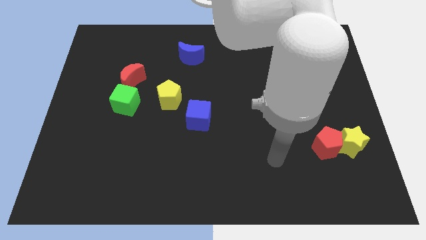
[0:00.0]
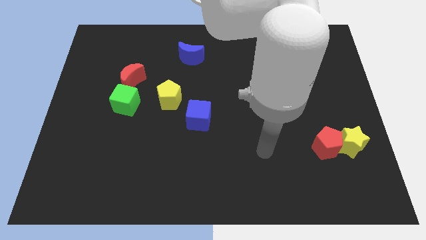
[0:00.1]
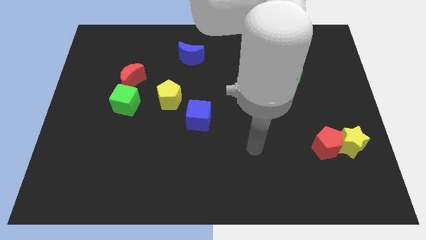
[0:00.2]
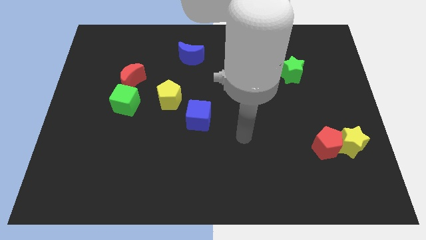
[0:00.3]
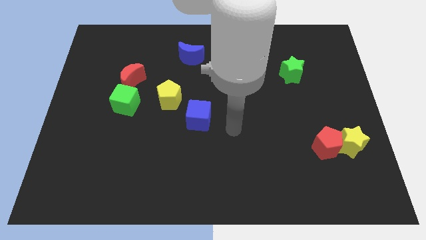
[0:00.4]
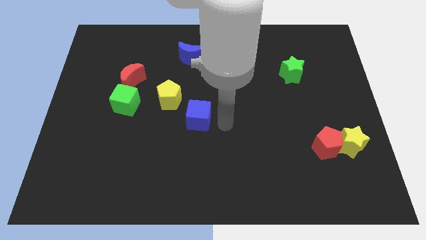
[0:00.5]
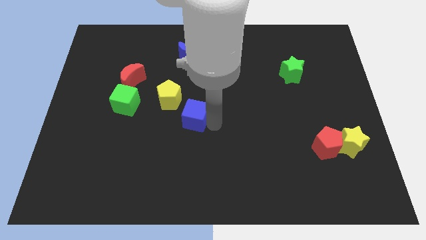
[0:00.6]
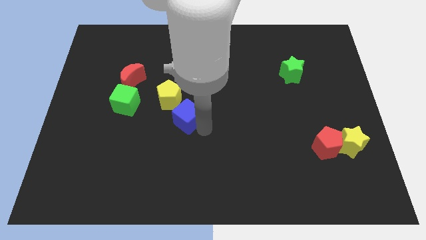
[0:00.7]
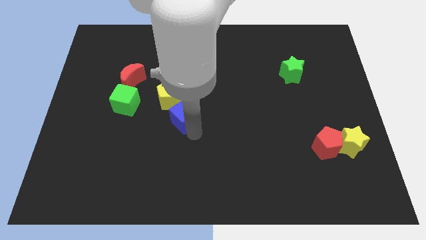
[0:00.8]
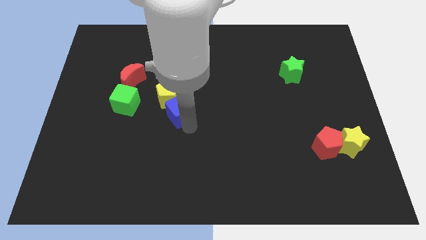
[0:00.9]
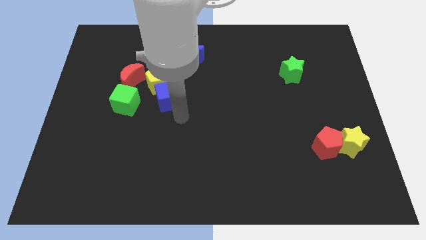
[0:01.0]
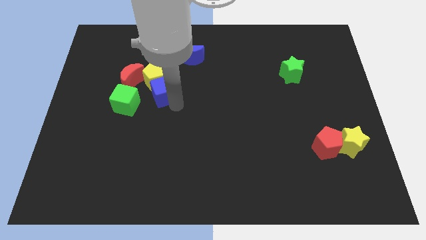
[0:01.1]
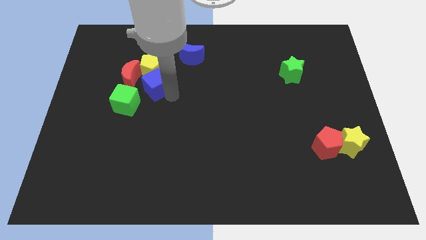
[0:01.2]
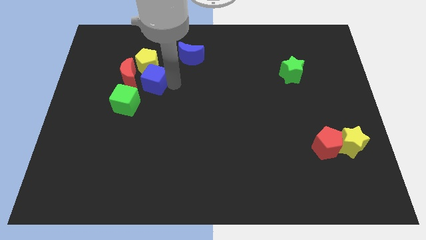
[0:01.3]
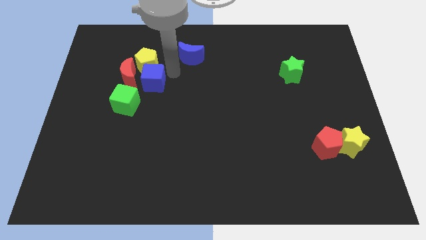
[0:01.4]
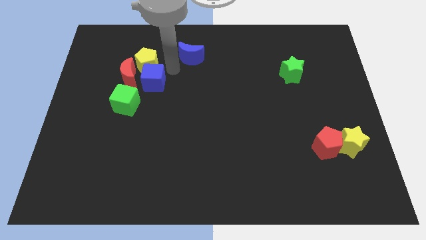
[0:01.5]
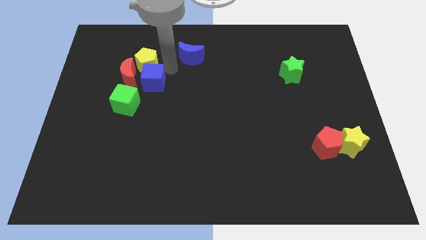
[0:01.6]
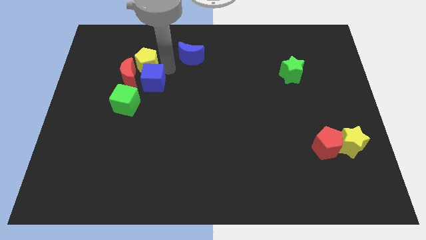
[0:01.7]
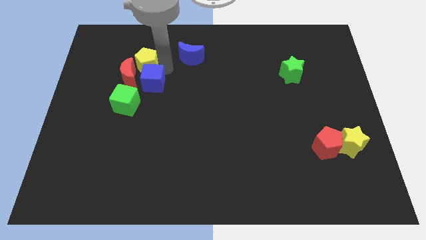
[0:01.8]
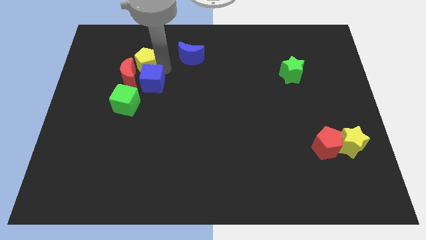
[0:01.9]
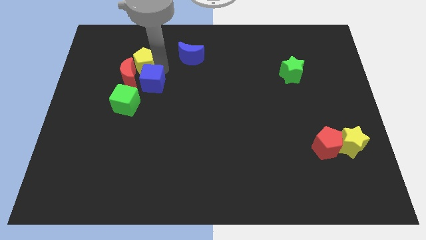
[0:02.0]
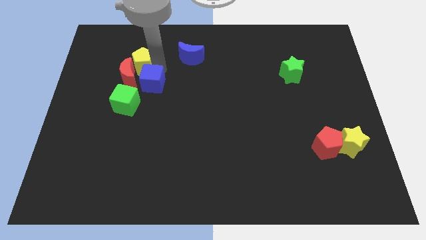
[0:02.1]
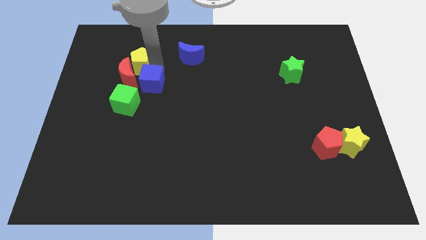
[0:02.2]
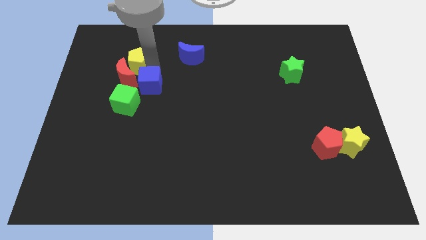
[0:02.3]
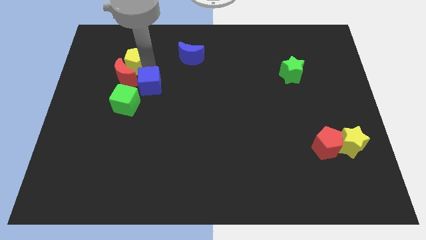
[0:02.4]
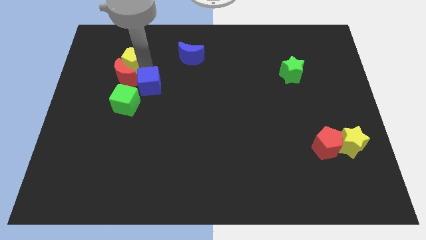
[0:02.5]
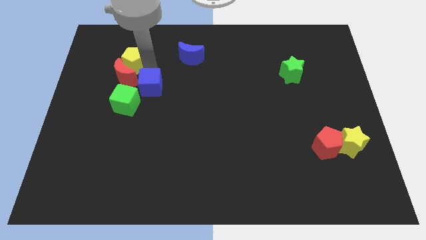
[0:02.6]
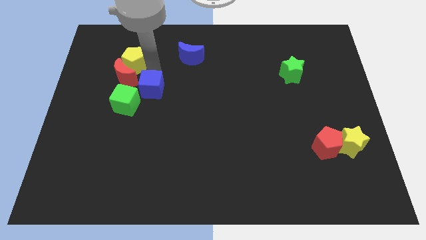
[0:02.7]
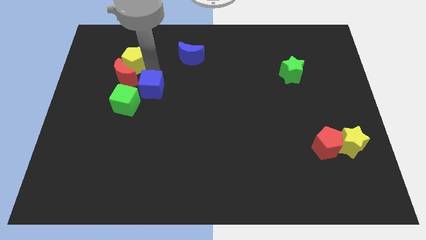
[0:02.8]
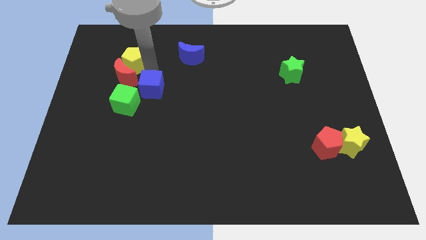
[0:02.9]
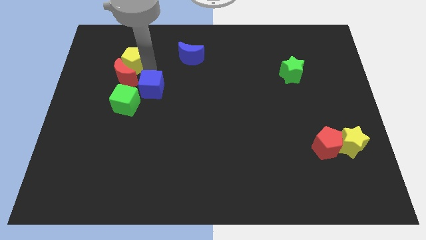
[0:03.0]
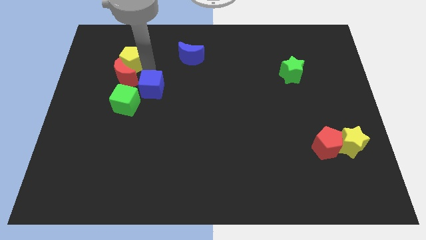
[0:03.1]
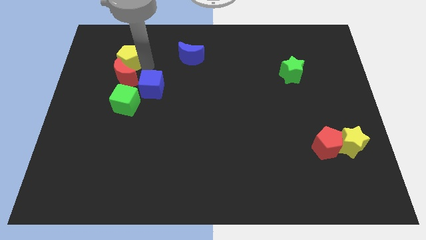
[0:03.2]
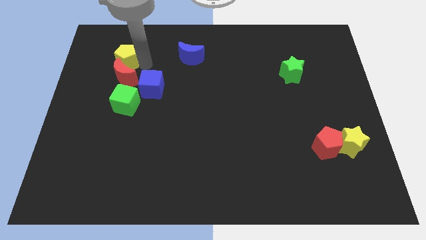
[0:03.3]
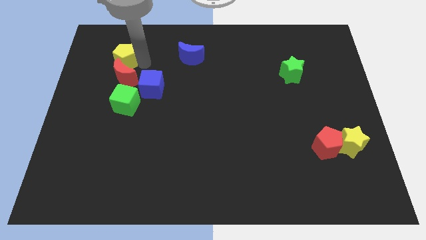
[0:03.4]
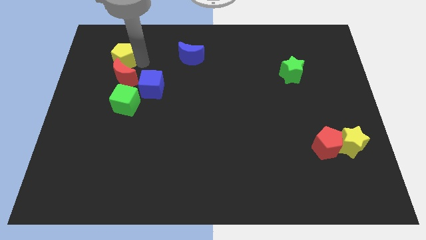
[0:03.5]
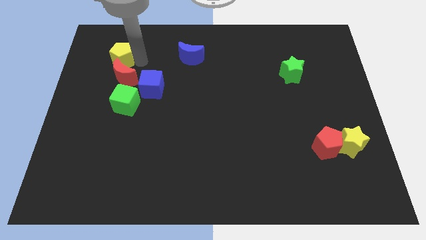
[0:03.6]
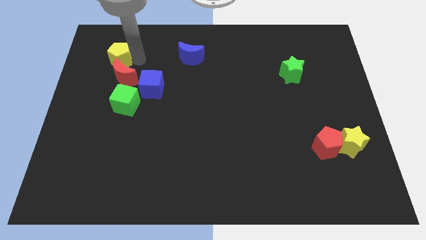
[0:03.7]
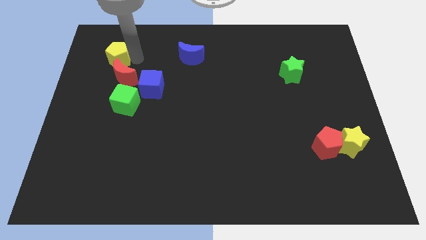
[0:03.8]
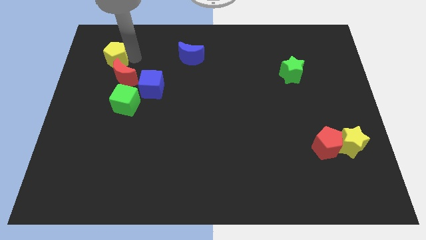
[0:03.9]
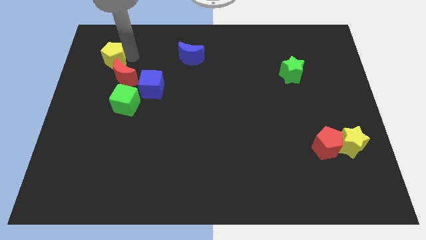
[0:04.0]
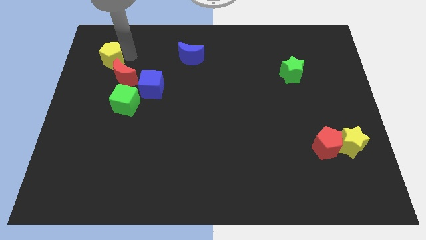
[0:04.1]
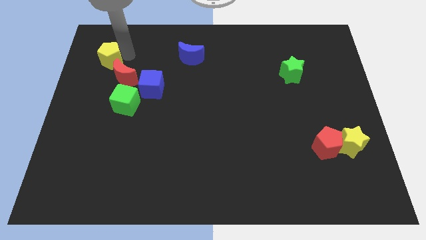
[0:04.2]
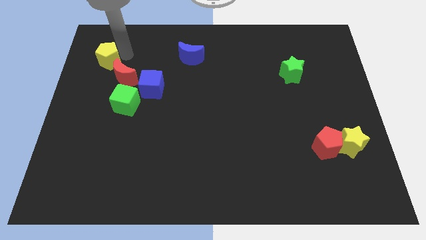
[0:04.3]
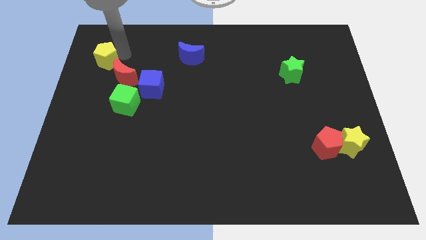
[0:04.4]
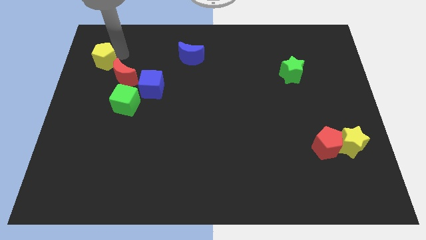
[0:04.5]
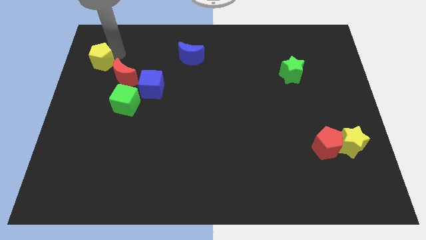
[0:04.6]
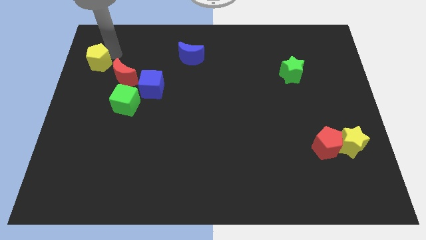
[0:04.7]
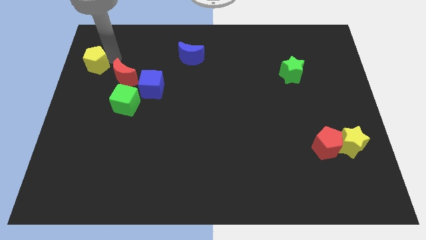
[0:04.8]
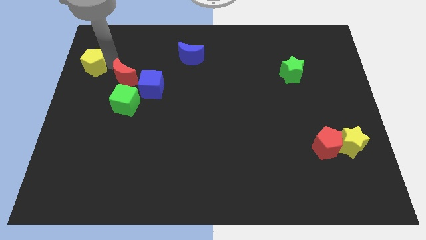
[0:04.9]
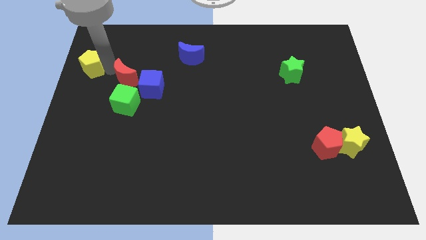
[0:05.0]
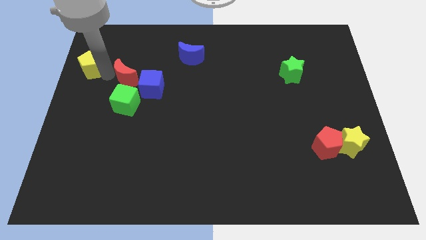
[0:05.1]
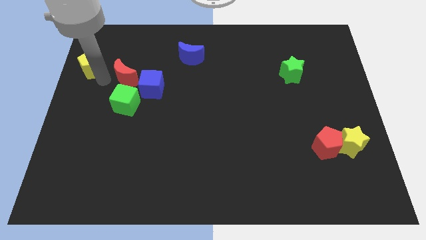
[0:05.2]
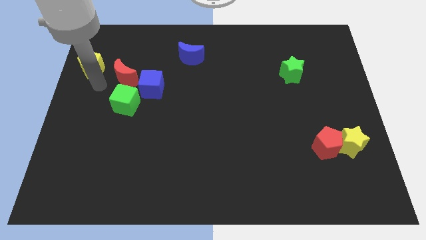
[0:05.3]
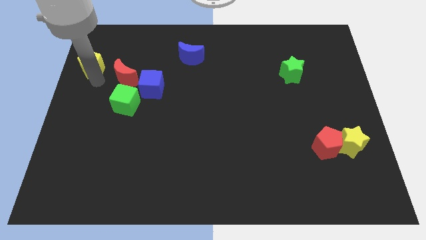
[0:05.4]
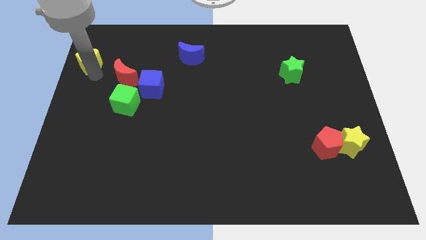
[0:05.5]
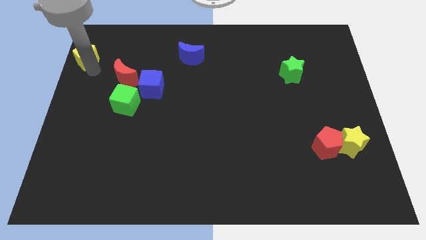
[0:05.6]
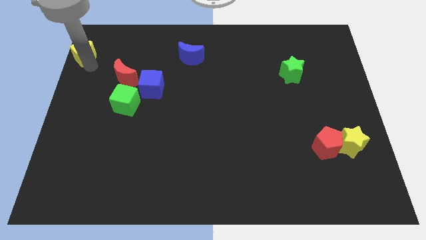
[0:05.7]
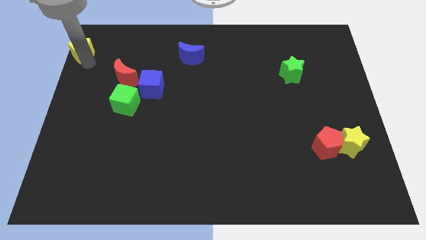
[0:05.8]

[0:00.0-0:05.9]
push the yellow pentagon to the top left corner
